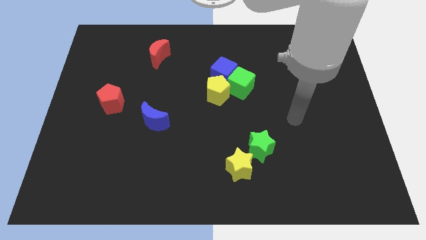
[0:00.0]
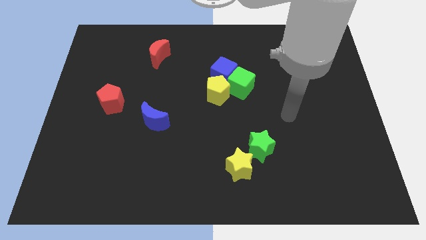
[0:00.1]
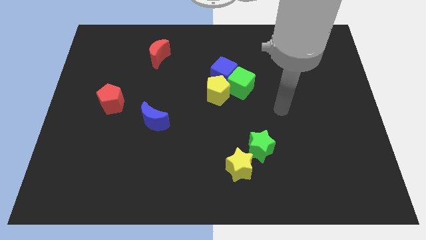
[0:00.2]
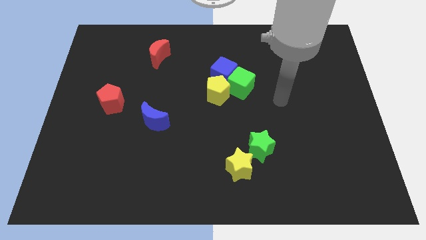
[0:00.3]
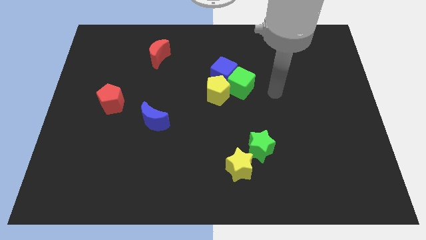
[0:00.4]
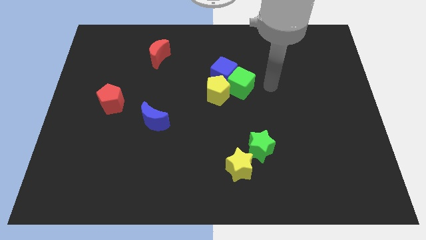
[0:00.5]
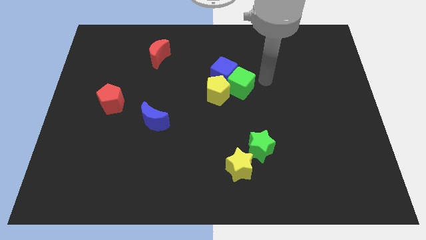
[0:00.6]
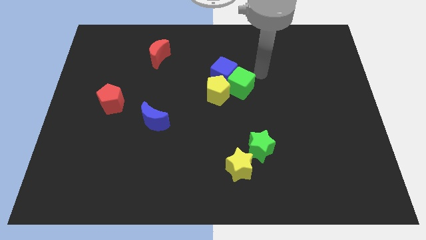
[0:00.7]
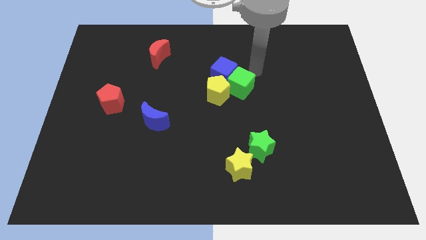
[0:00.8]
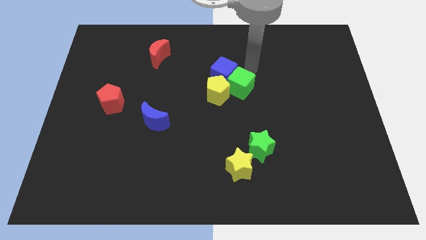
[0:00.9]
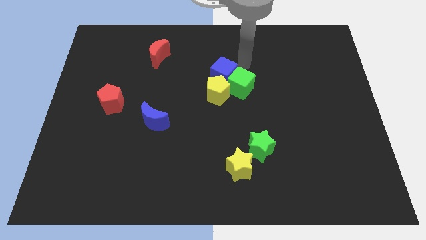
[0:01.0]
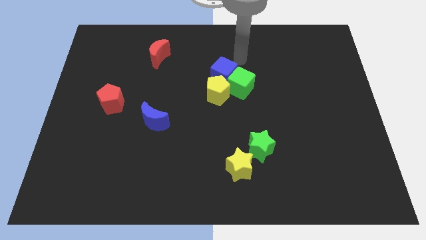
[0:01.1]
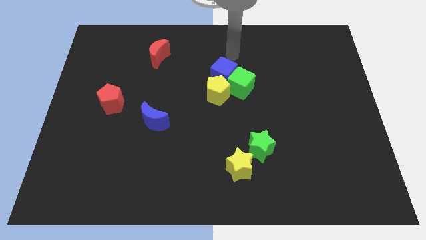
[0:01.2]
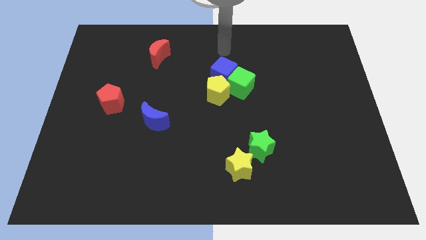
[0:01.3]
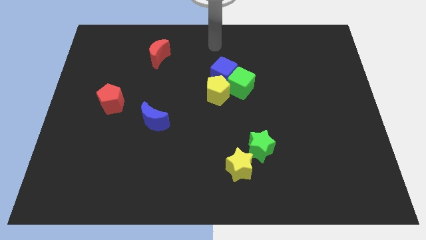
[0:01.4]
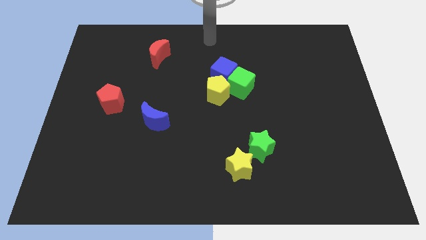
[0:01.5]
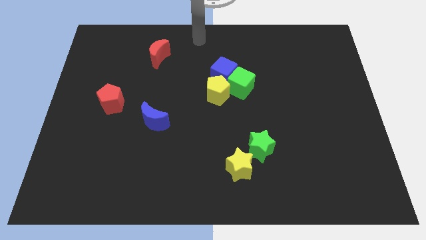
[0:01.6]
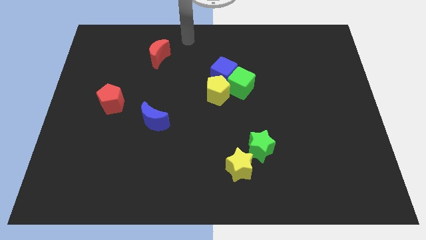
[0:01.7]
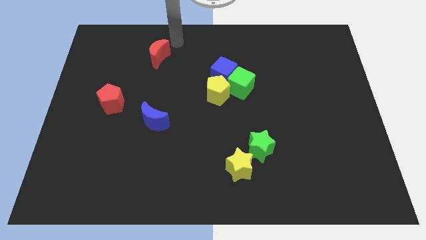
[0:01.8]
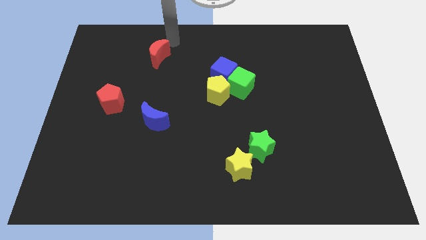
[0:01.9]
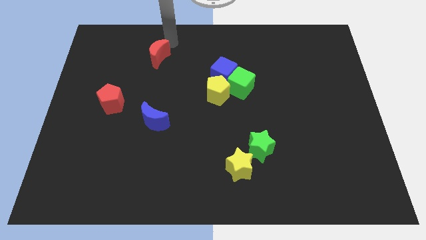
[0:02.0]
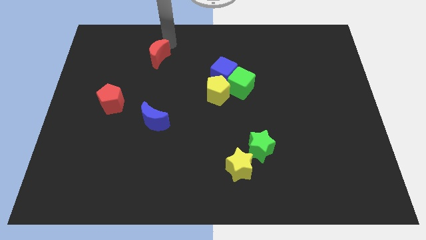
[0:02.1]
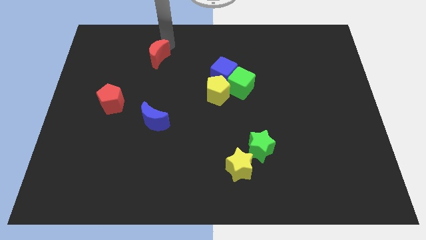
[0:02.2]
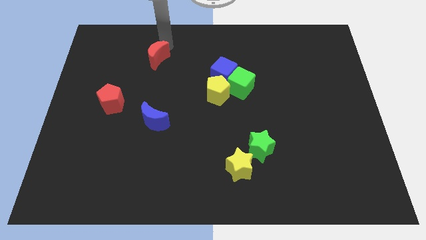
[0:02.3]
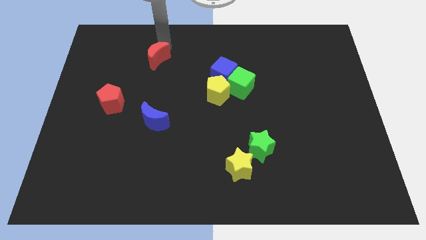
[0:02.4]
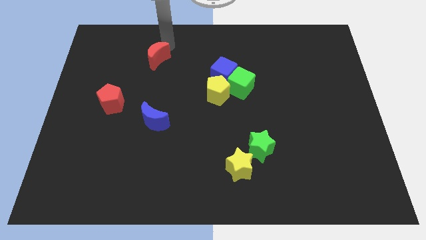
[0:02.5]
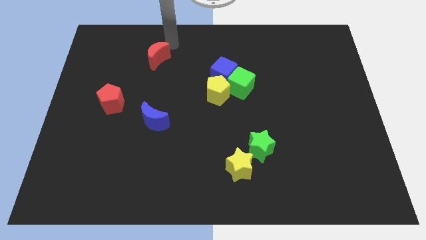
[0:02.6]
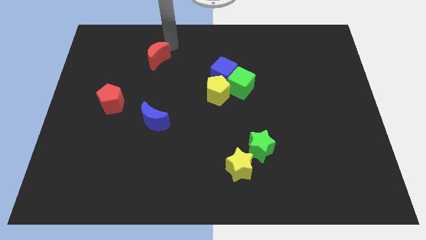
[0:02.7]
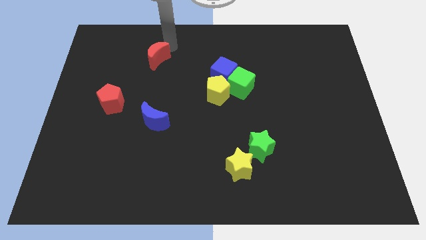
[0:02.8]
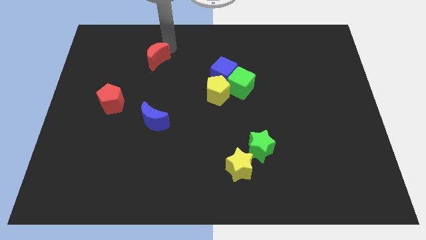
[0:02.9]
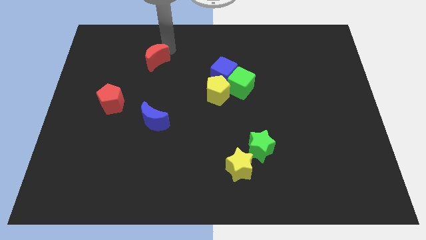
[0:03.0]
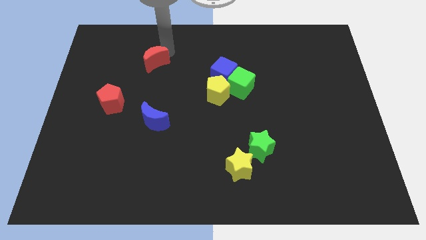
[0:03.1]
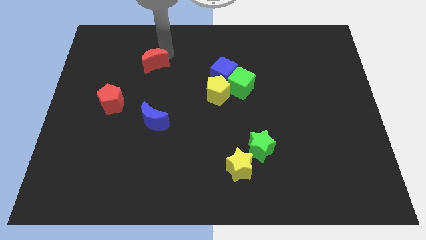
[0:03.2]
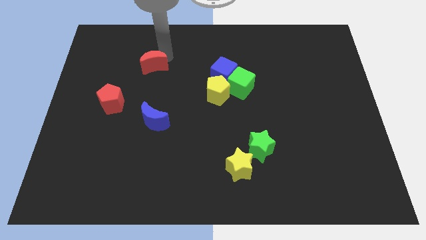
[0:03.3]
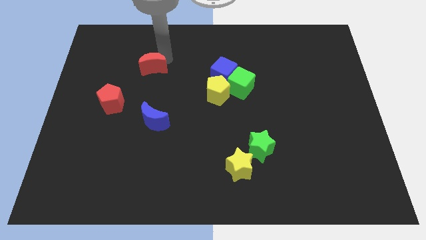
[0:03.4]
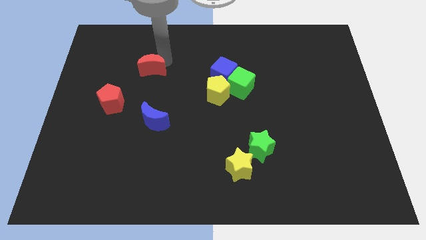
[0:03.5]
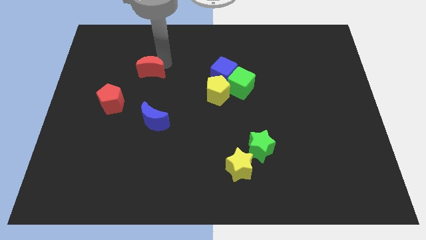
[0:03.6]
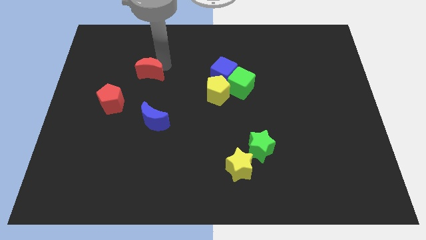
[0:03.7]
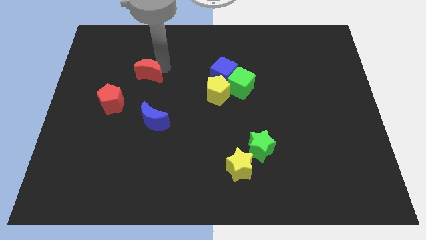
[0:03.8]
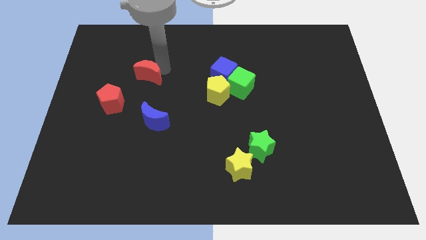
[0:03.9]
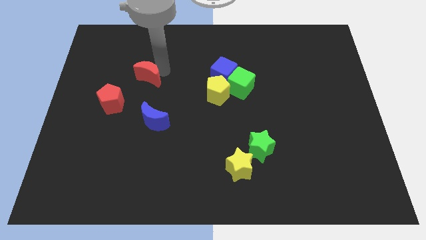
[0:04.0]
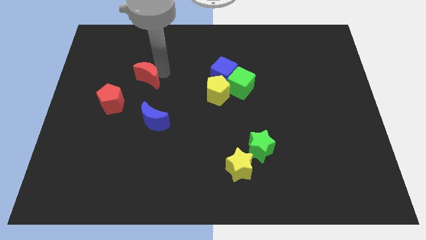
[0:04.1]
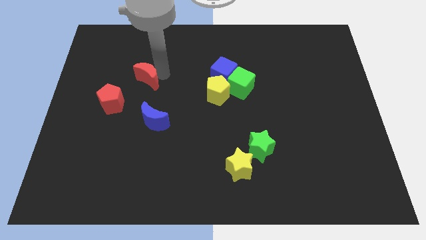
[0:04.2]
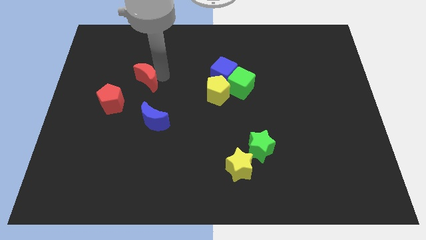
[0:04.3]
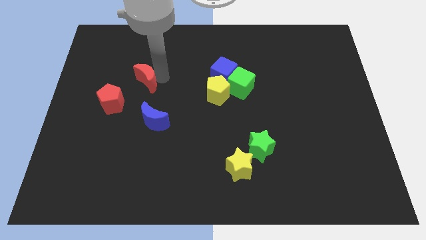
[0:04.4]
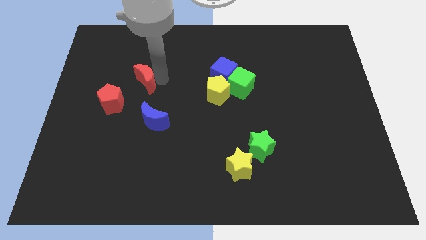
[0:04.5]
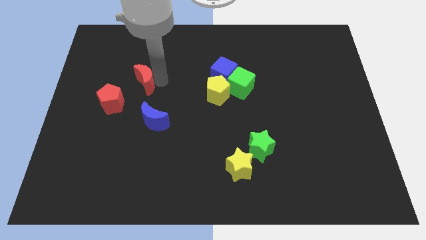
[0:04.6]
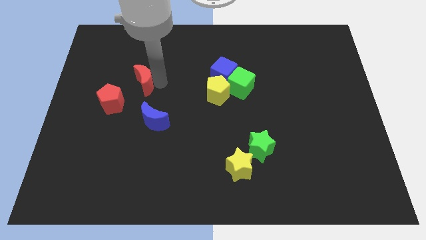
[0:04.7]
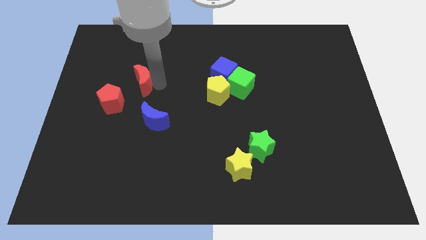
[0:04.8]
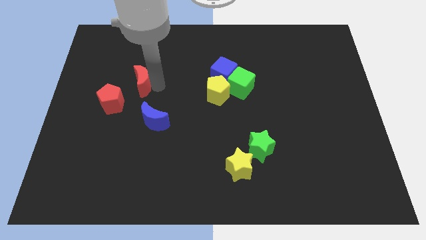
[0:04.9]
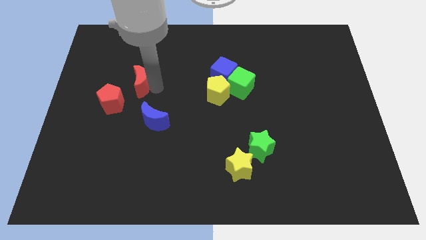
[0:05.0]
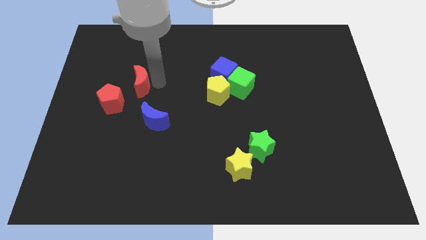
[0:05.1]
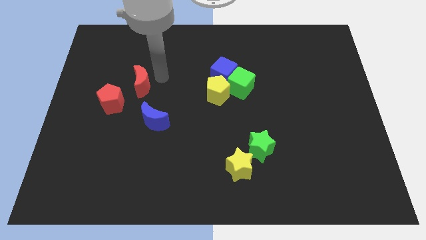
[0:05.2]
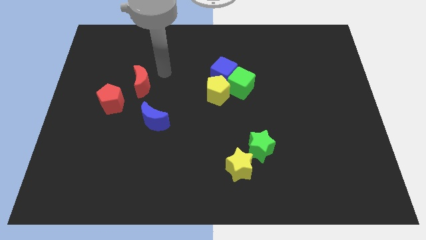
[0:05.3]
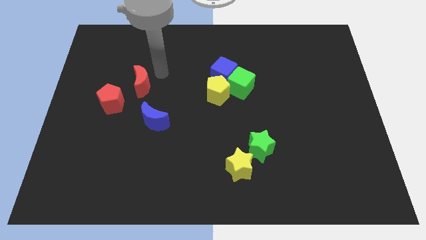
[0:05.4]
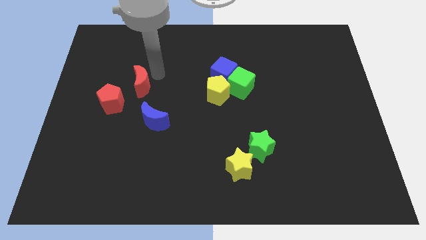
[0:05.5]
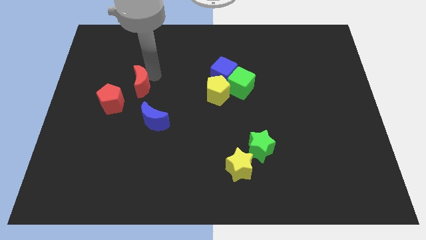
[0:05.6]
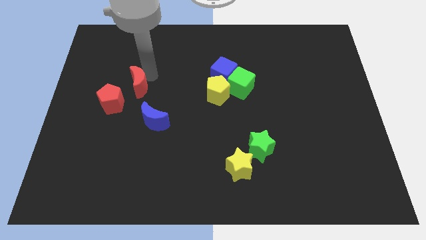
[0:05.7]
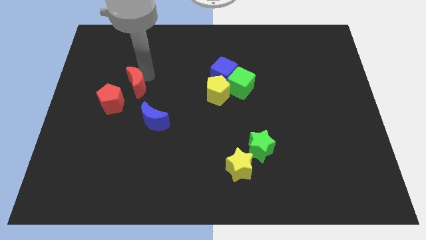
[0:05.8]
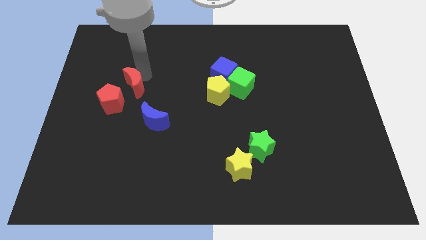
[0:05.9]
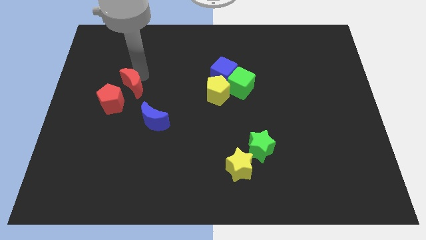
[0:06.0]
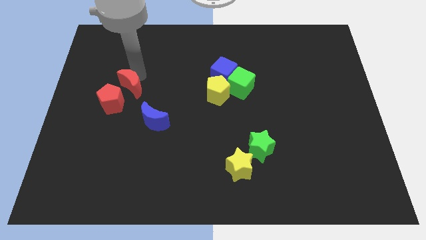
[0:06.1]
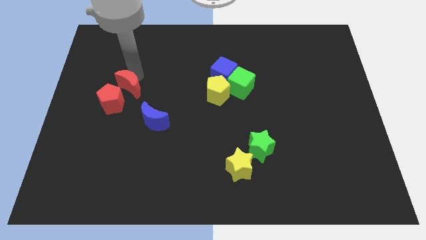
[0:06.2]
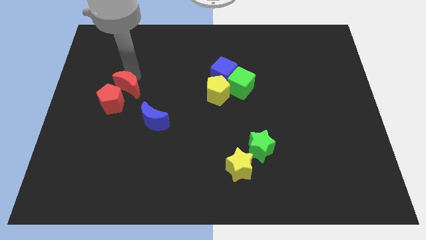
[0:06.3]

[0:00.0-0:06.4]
put the red moon to the red pentagon

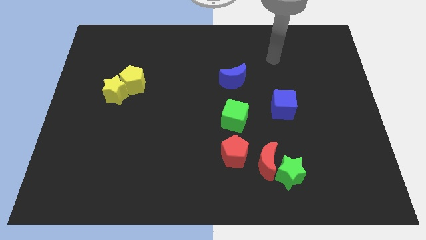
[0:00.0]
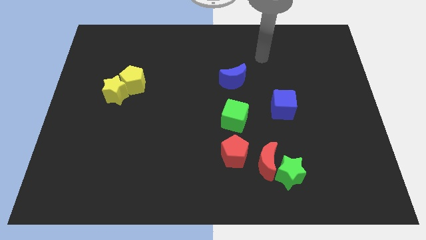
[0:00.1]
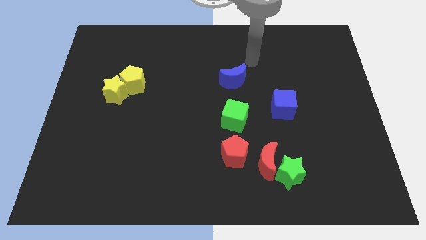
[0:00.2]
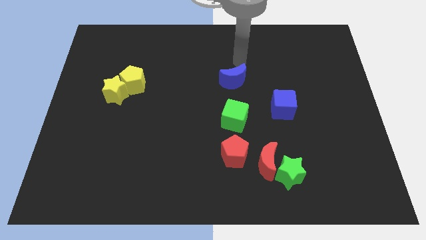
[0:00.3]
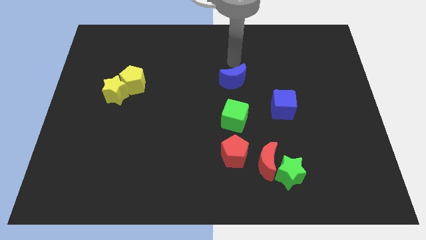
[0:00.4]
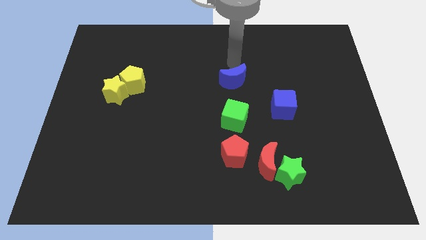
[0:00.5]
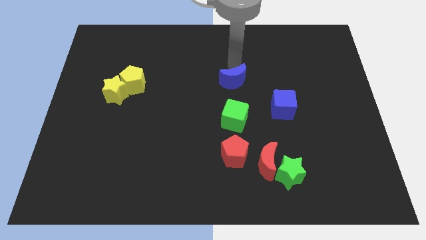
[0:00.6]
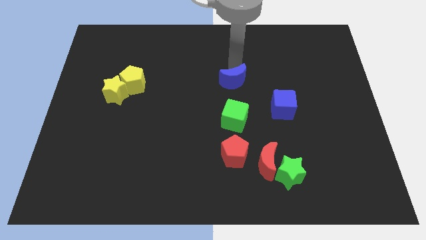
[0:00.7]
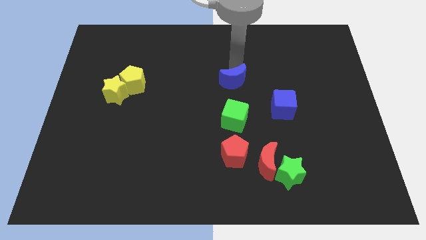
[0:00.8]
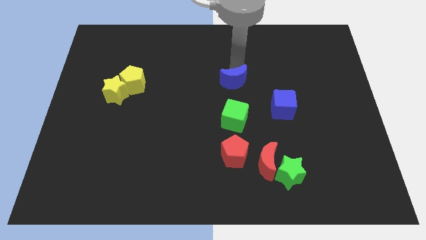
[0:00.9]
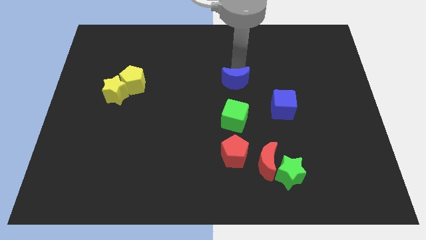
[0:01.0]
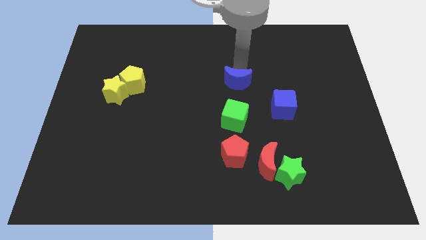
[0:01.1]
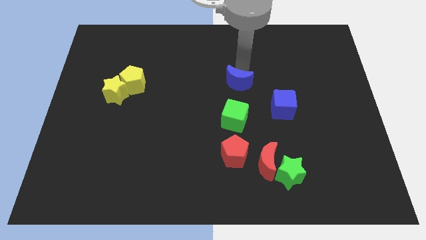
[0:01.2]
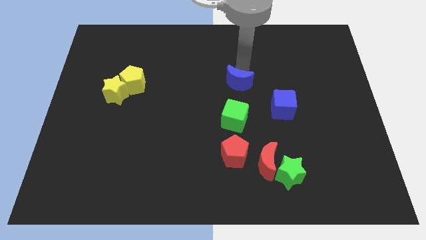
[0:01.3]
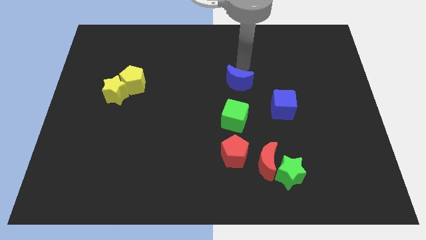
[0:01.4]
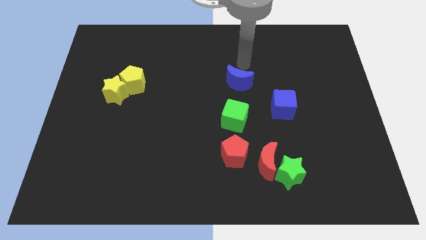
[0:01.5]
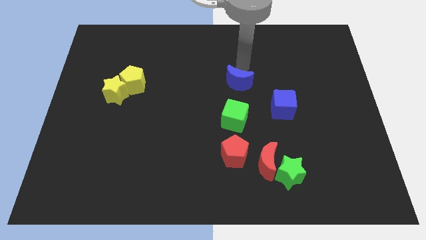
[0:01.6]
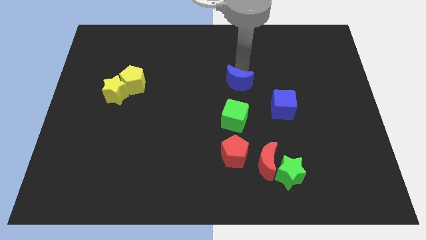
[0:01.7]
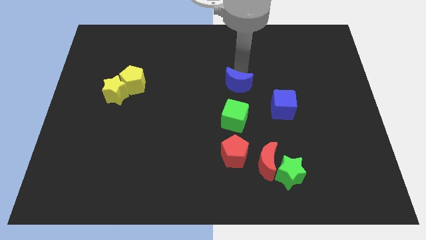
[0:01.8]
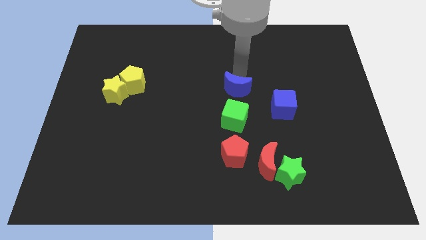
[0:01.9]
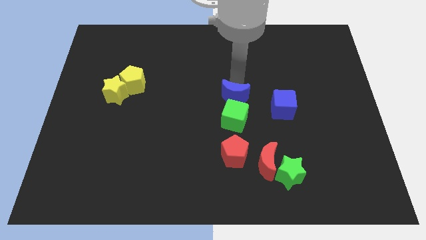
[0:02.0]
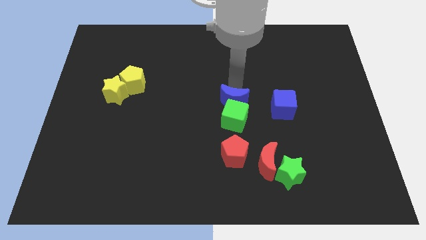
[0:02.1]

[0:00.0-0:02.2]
slide the blue moon to the green cube
